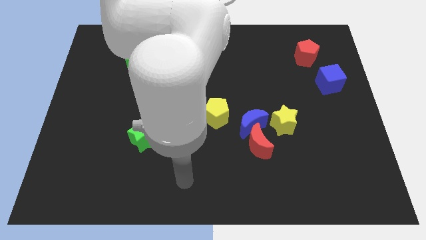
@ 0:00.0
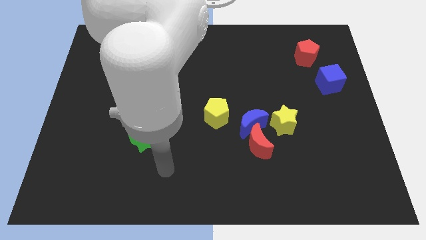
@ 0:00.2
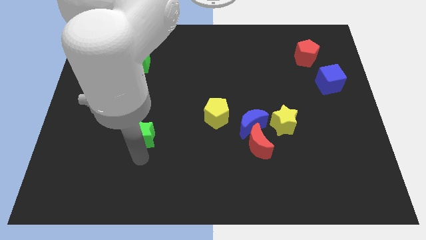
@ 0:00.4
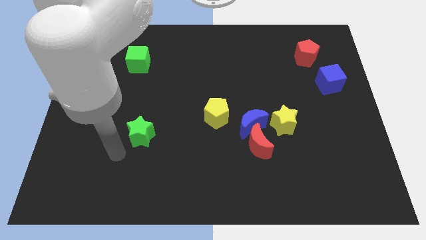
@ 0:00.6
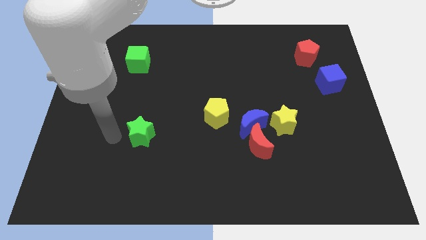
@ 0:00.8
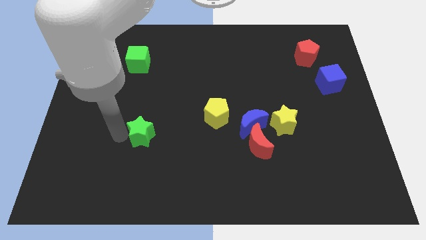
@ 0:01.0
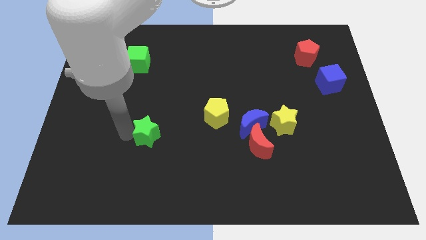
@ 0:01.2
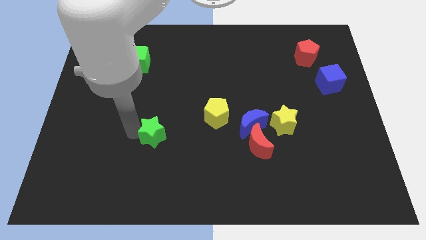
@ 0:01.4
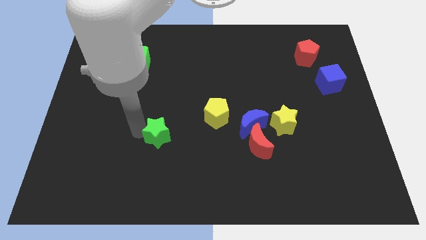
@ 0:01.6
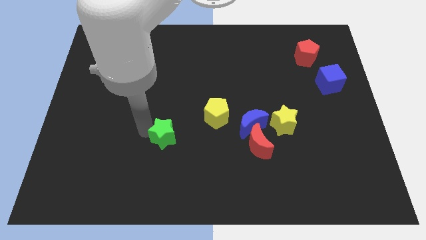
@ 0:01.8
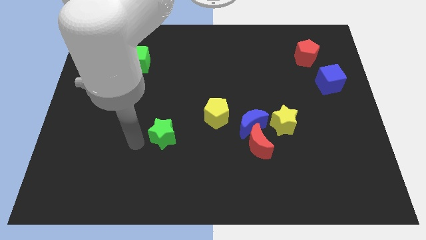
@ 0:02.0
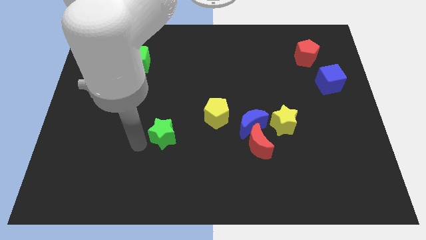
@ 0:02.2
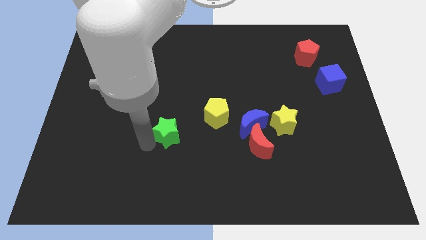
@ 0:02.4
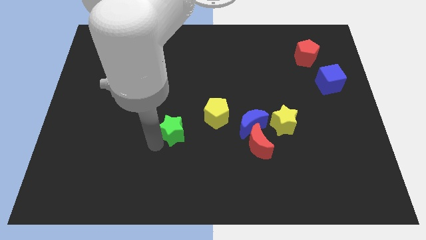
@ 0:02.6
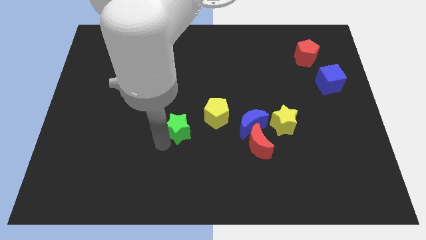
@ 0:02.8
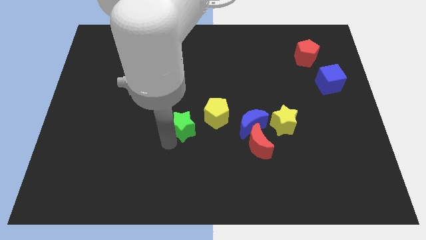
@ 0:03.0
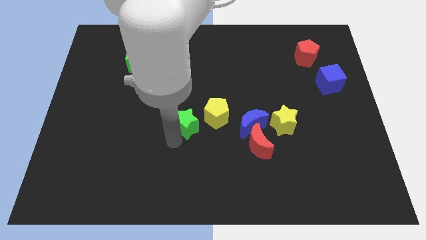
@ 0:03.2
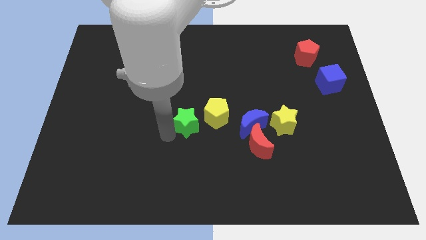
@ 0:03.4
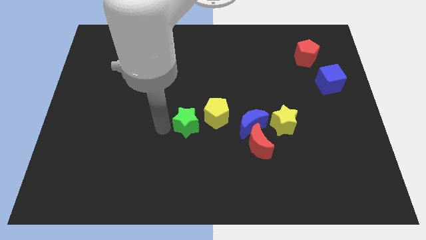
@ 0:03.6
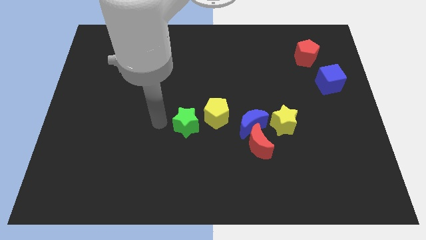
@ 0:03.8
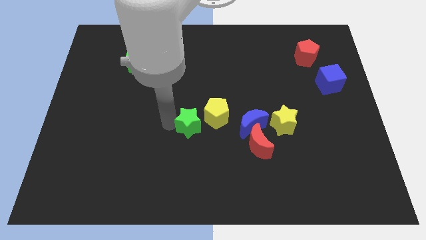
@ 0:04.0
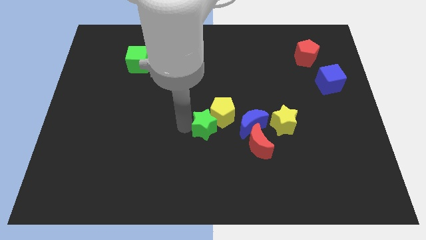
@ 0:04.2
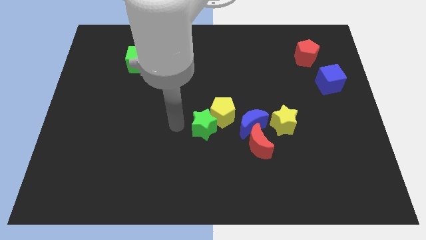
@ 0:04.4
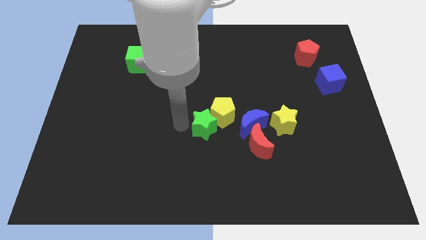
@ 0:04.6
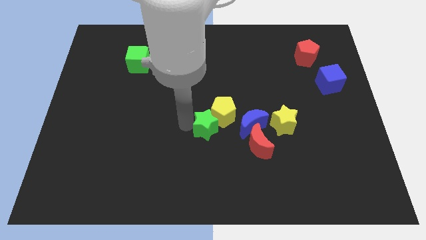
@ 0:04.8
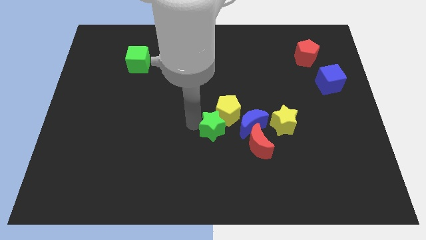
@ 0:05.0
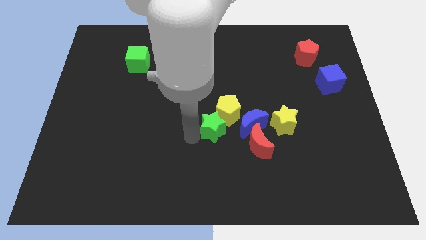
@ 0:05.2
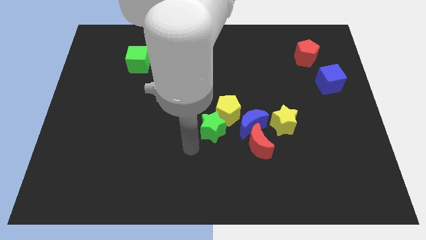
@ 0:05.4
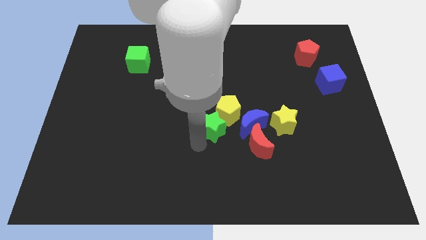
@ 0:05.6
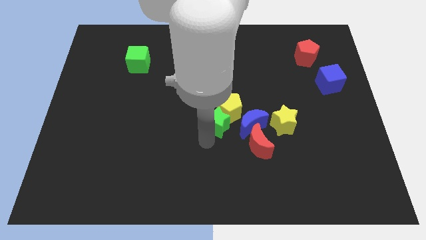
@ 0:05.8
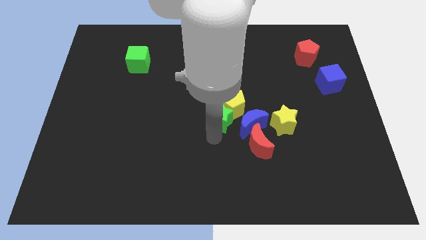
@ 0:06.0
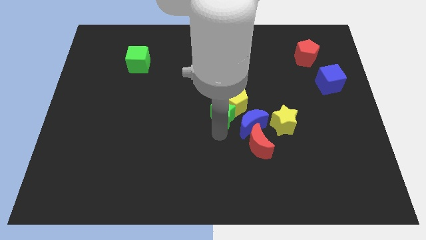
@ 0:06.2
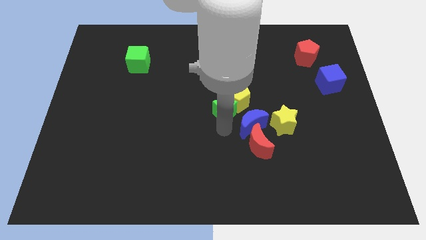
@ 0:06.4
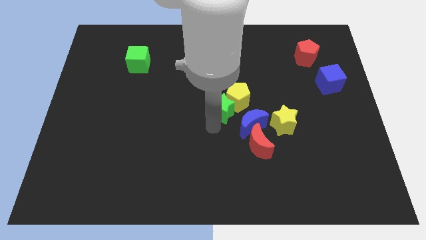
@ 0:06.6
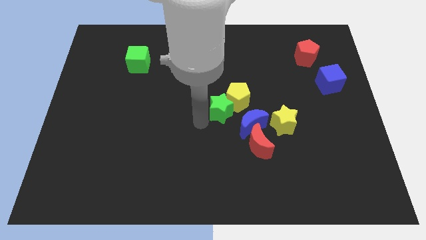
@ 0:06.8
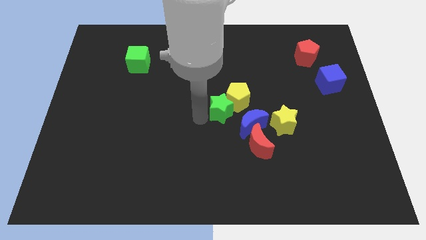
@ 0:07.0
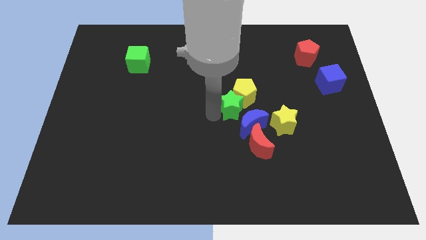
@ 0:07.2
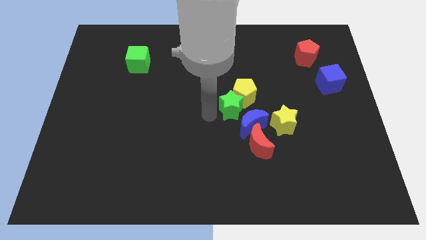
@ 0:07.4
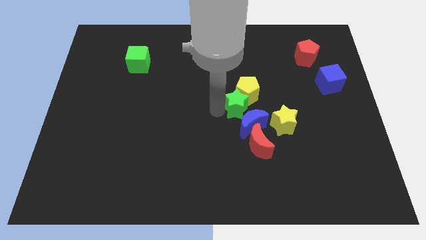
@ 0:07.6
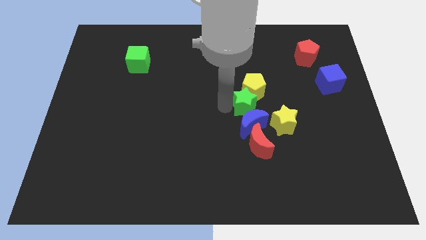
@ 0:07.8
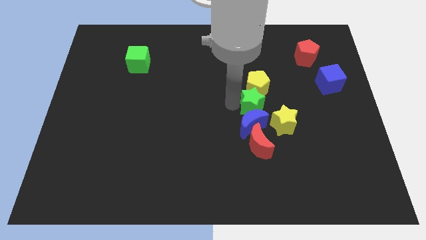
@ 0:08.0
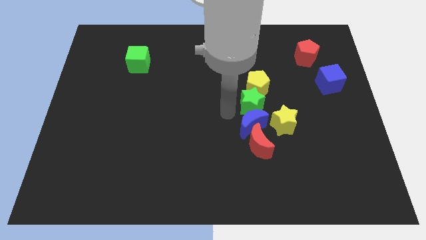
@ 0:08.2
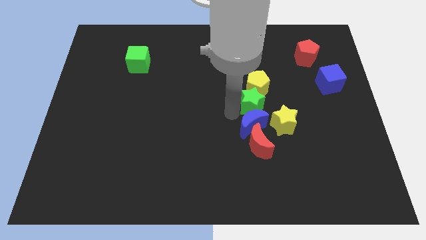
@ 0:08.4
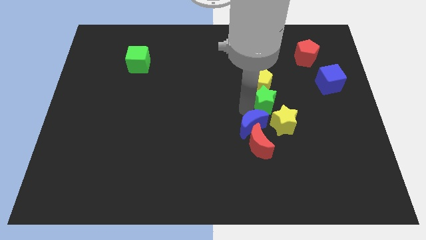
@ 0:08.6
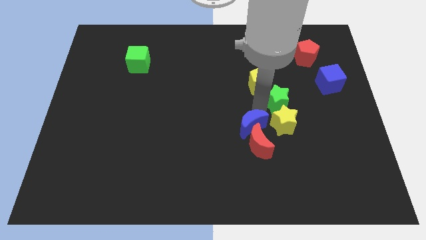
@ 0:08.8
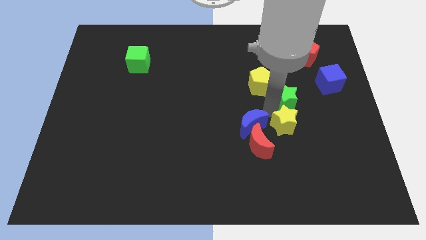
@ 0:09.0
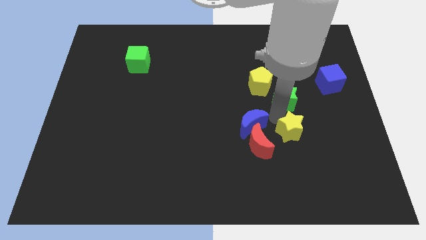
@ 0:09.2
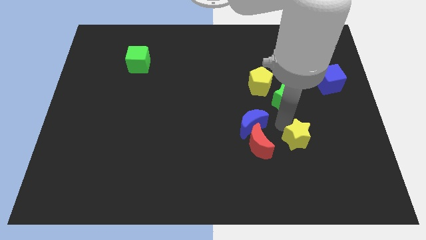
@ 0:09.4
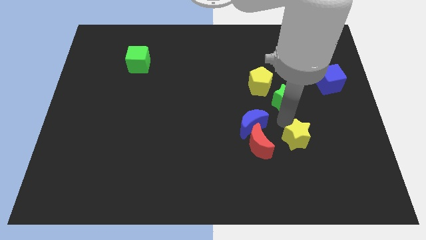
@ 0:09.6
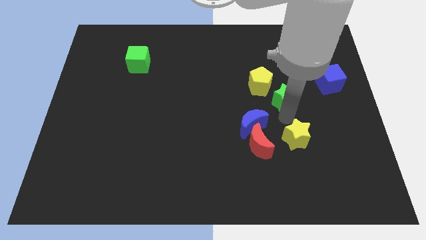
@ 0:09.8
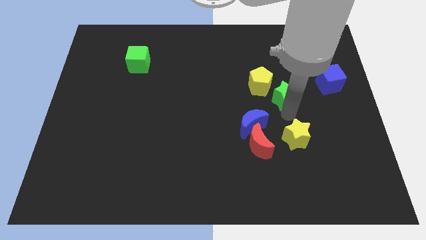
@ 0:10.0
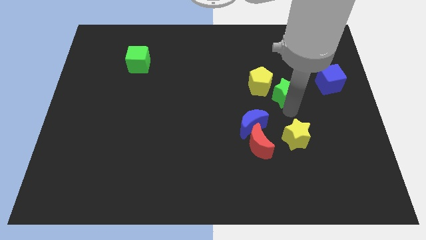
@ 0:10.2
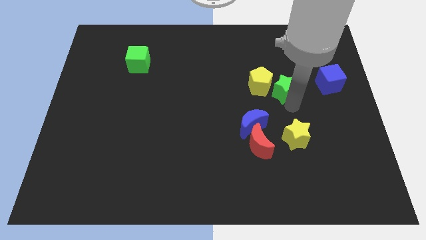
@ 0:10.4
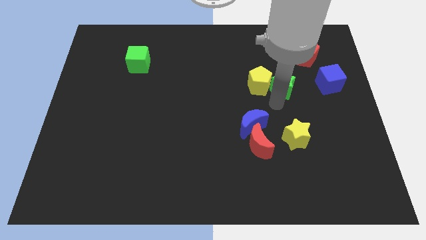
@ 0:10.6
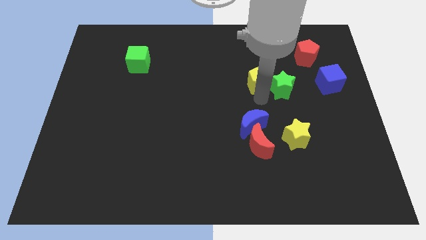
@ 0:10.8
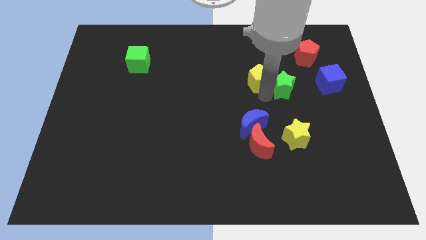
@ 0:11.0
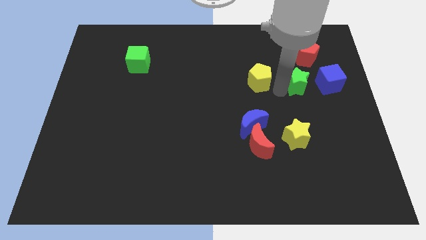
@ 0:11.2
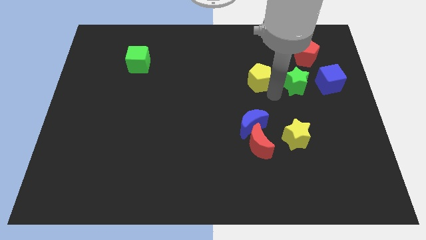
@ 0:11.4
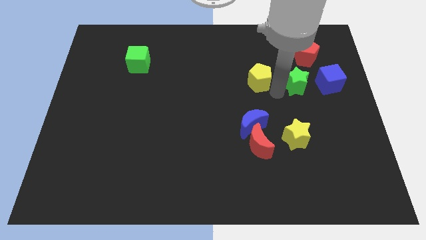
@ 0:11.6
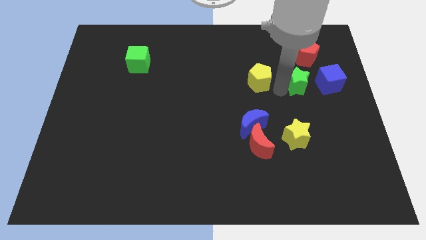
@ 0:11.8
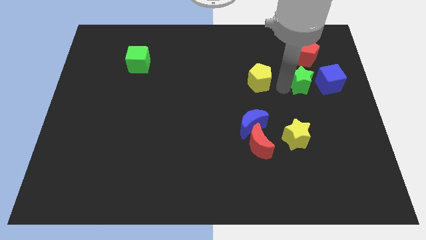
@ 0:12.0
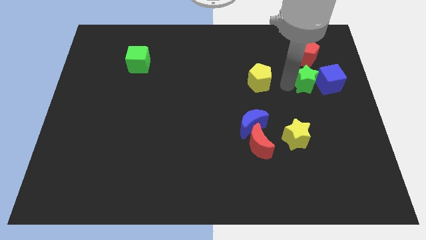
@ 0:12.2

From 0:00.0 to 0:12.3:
push the green star close to the blue cube
